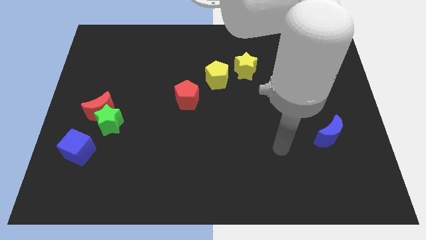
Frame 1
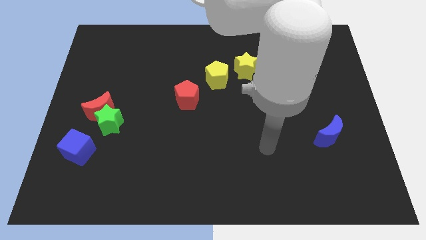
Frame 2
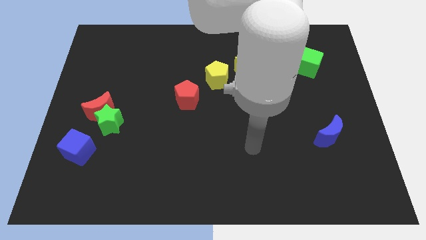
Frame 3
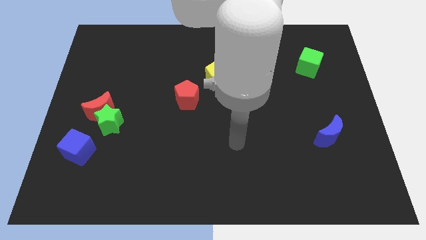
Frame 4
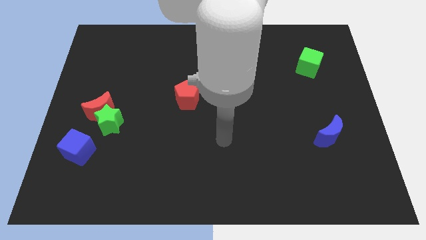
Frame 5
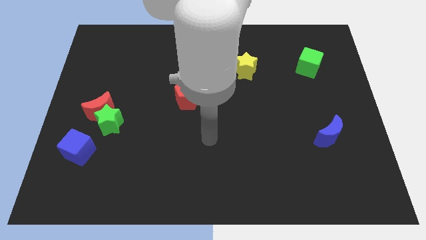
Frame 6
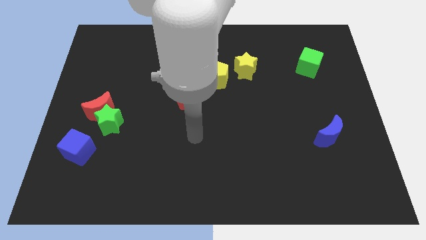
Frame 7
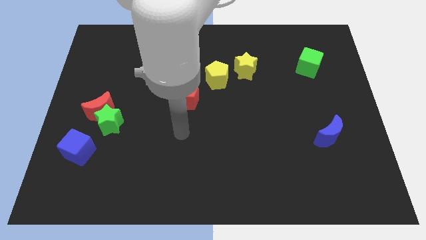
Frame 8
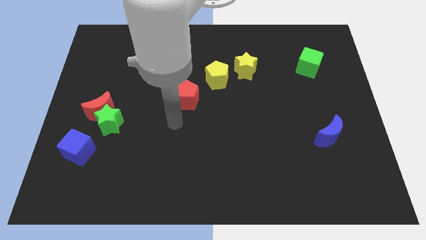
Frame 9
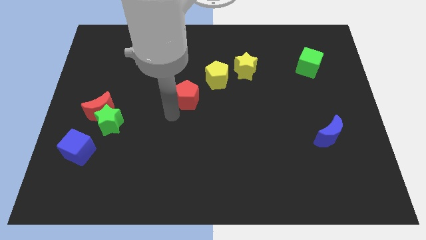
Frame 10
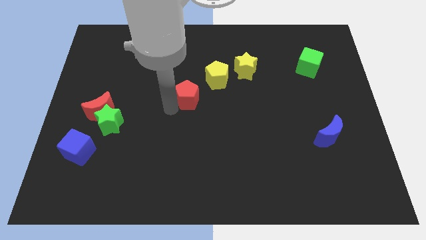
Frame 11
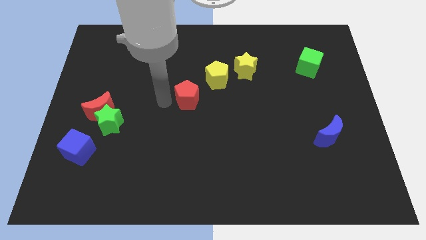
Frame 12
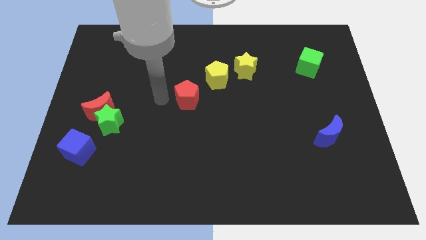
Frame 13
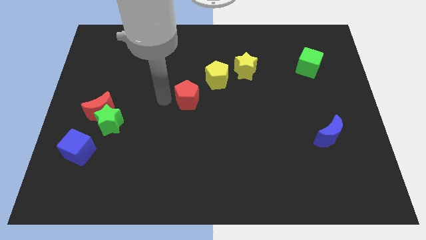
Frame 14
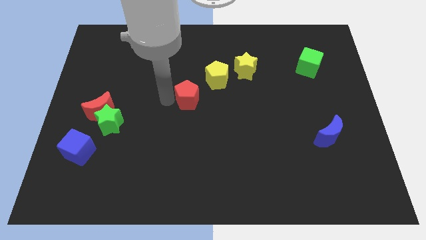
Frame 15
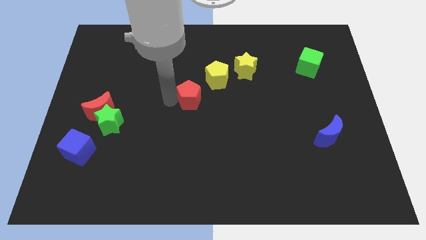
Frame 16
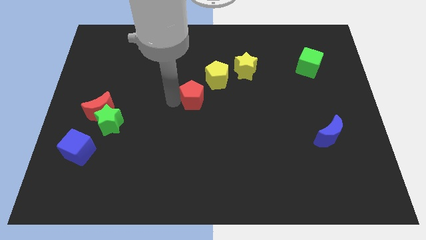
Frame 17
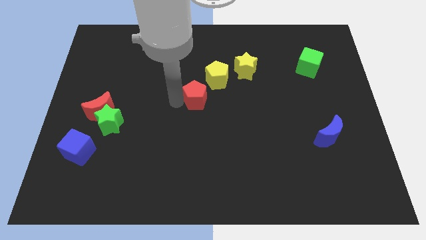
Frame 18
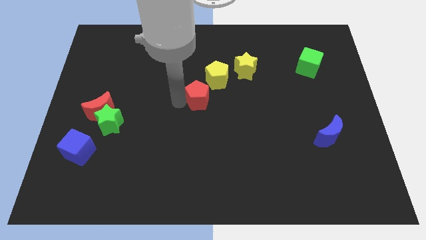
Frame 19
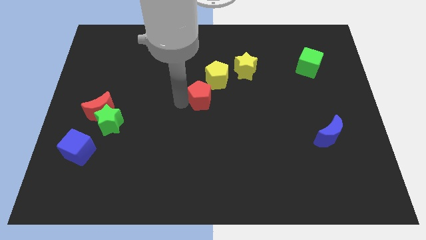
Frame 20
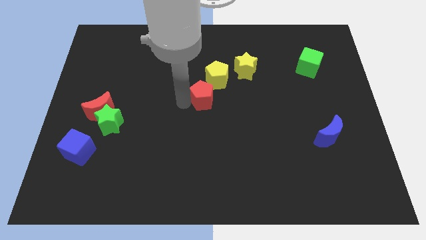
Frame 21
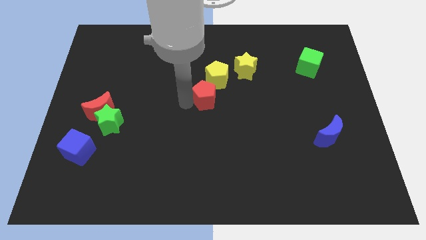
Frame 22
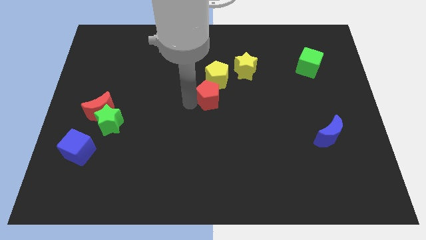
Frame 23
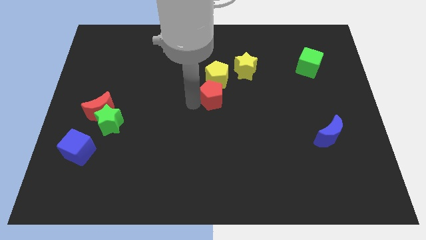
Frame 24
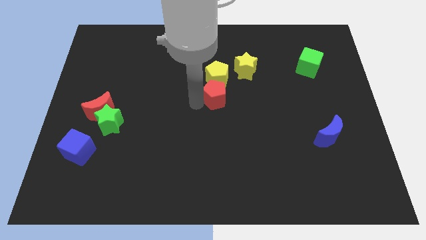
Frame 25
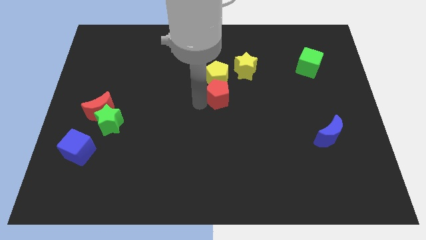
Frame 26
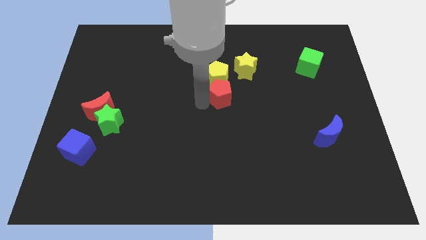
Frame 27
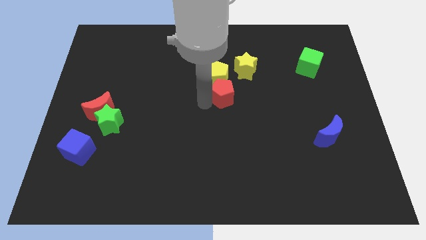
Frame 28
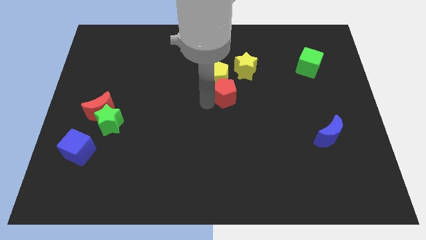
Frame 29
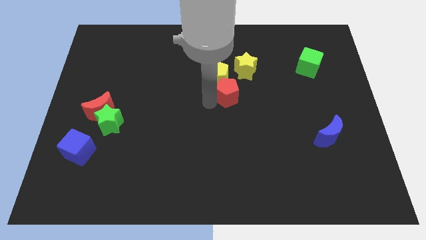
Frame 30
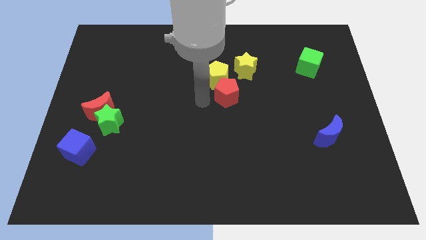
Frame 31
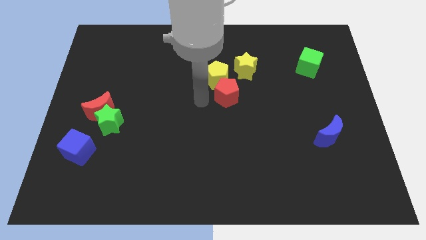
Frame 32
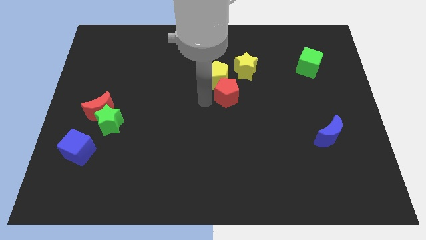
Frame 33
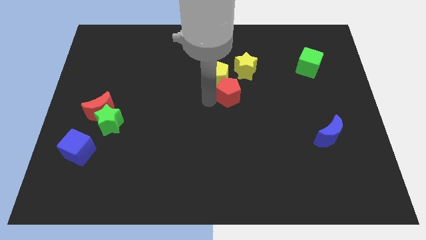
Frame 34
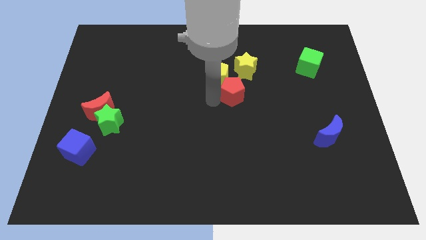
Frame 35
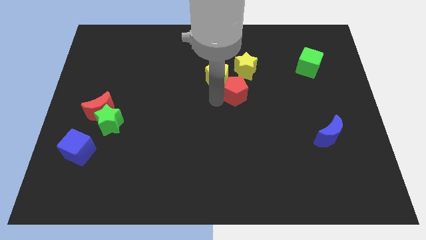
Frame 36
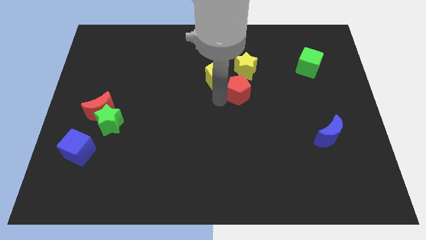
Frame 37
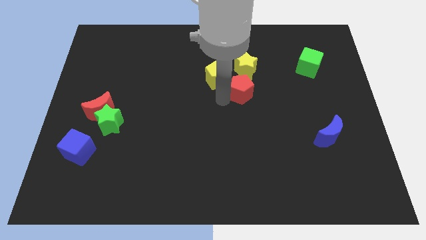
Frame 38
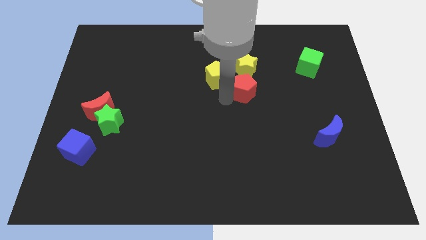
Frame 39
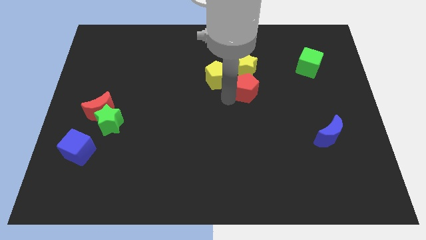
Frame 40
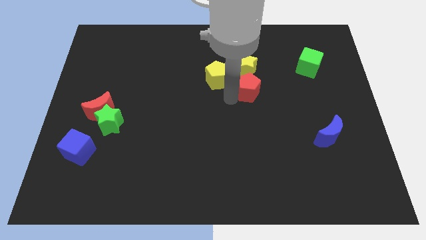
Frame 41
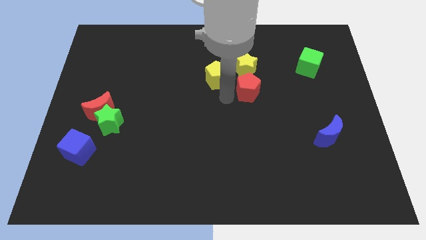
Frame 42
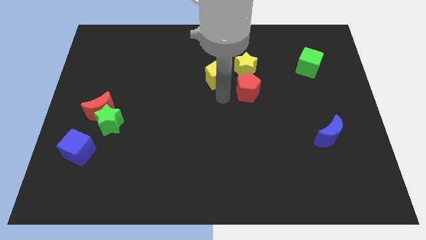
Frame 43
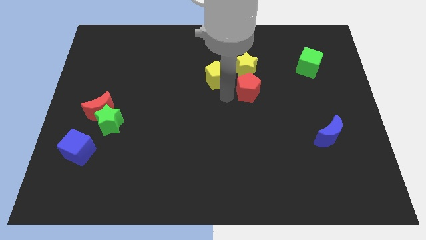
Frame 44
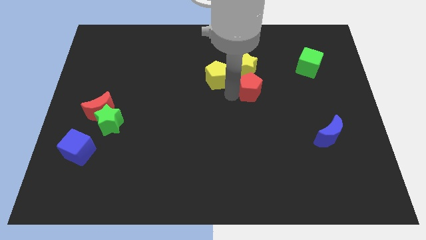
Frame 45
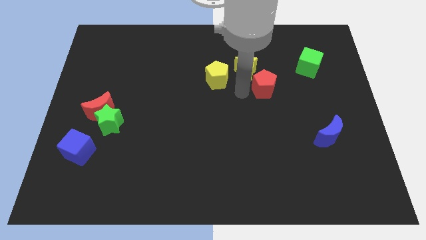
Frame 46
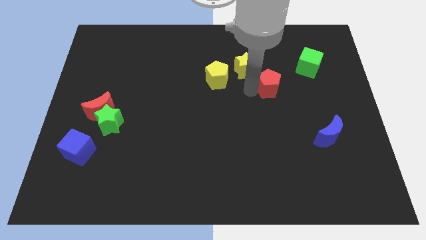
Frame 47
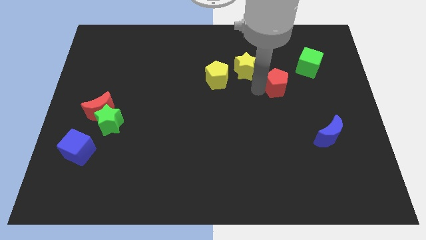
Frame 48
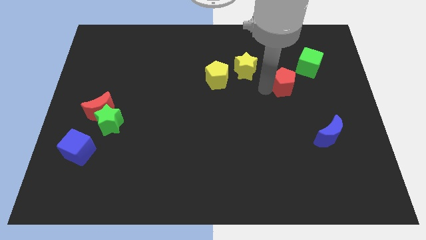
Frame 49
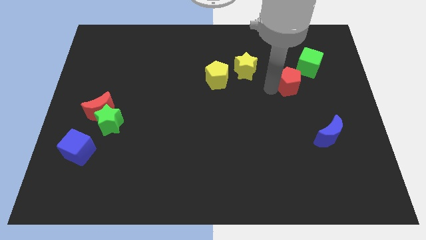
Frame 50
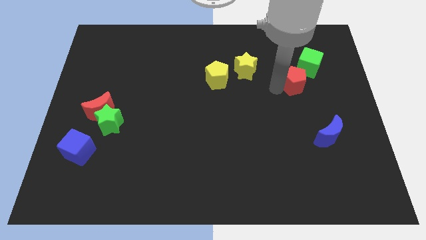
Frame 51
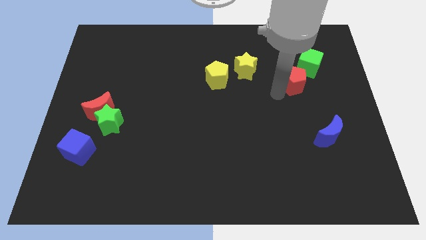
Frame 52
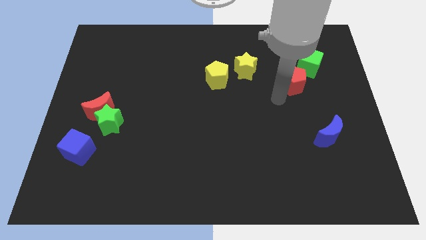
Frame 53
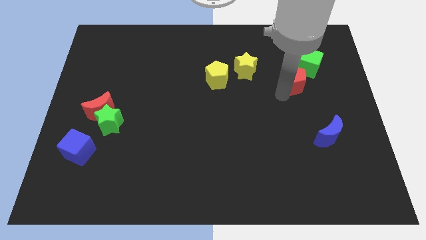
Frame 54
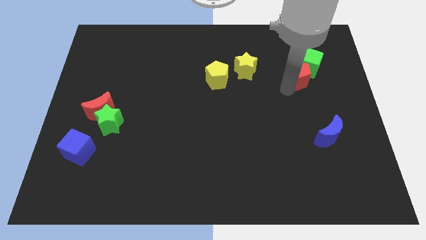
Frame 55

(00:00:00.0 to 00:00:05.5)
move the red pentagon towards the green cube

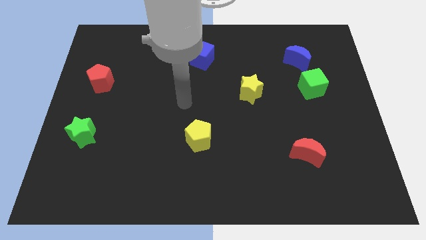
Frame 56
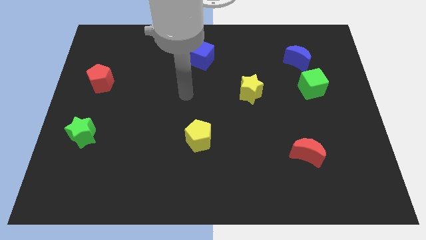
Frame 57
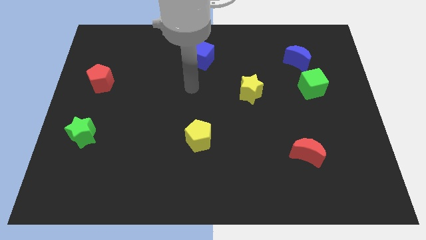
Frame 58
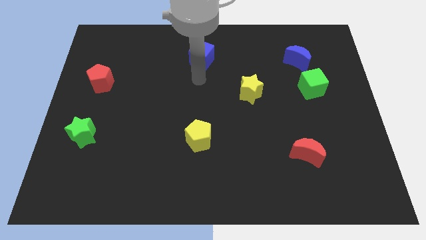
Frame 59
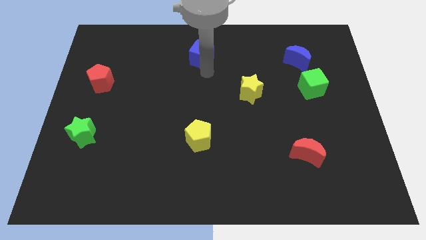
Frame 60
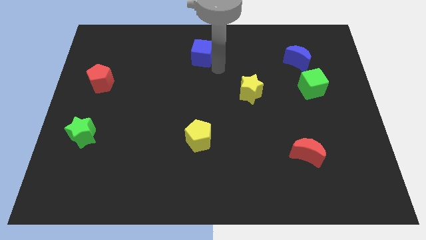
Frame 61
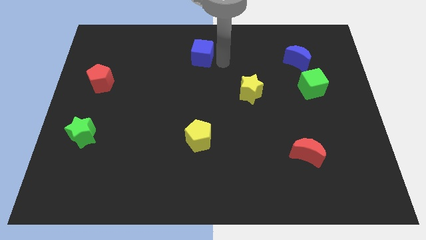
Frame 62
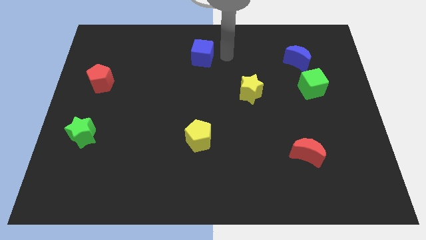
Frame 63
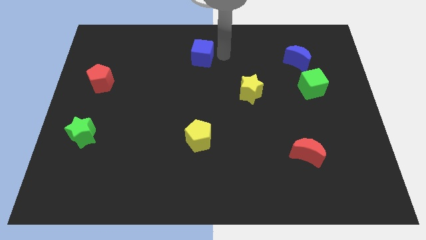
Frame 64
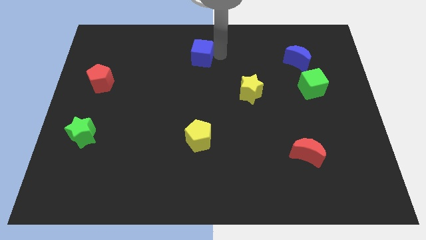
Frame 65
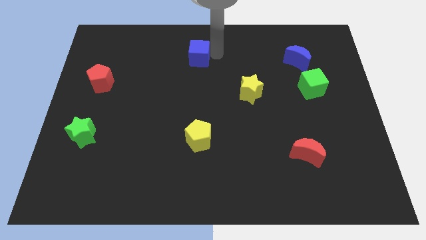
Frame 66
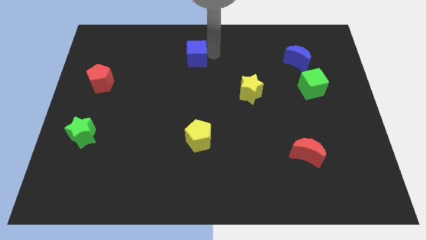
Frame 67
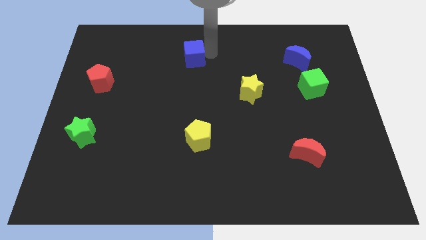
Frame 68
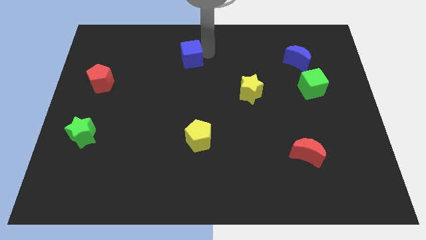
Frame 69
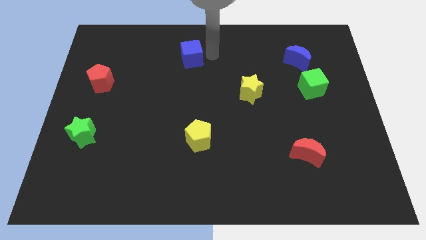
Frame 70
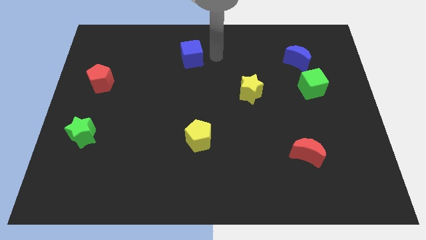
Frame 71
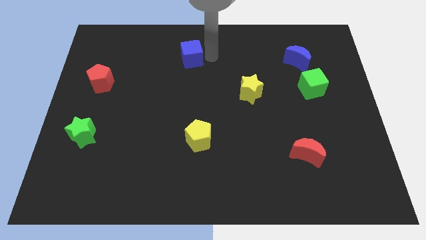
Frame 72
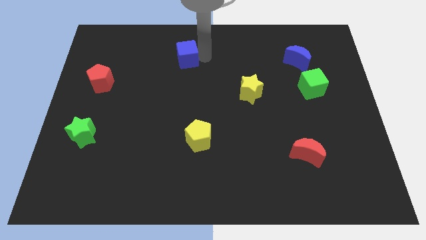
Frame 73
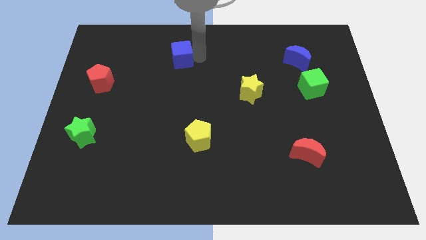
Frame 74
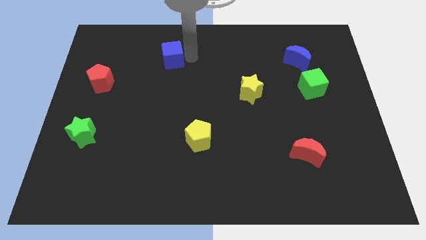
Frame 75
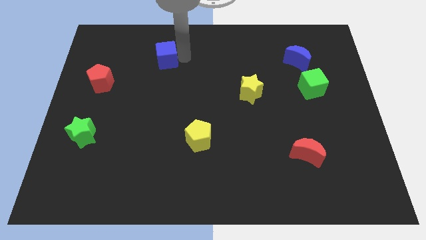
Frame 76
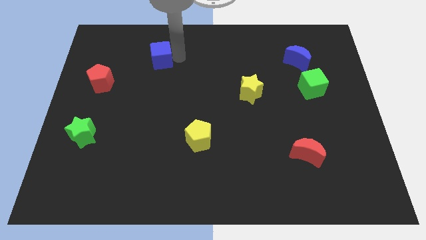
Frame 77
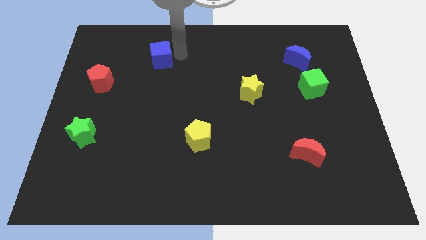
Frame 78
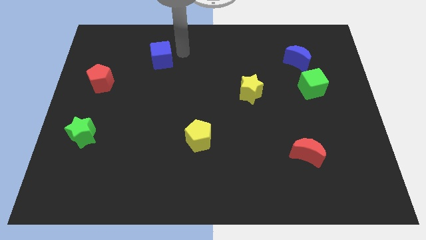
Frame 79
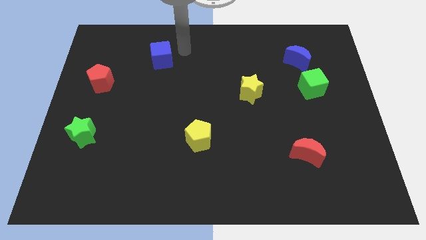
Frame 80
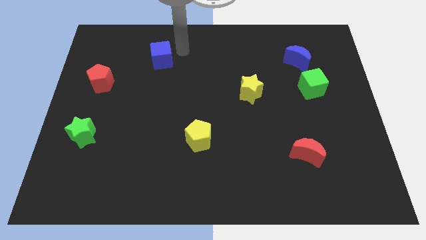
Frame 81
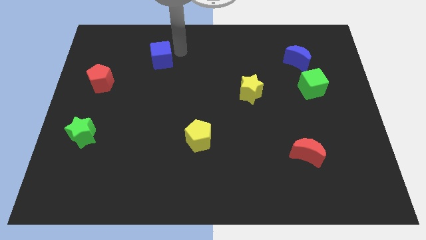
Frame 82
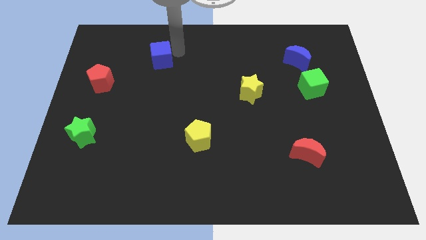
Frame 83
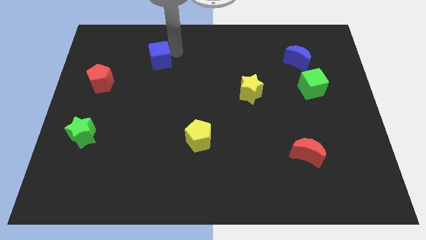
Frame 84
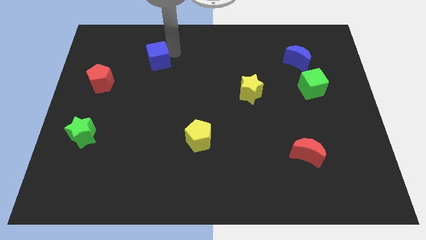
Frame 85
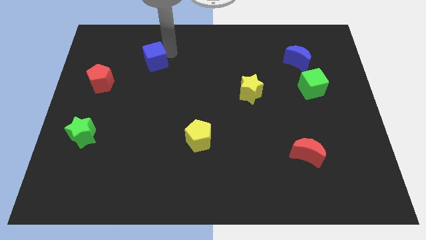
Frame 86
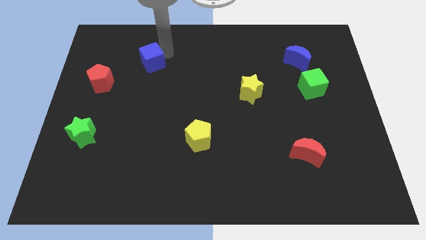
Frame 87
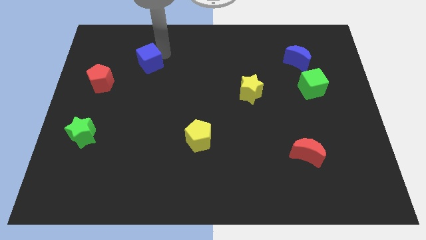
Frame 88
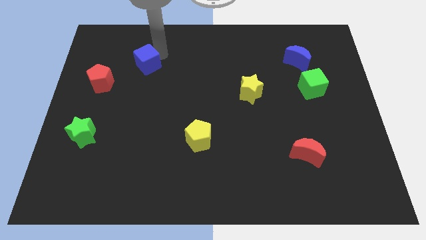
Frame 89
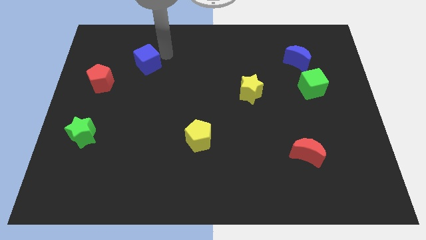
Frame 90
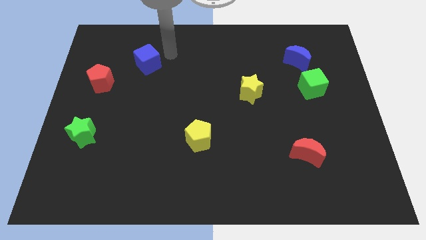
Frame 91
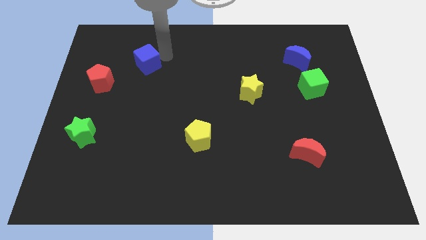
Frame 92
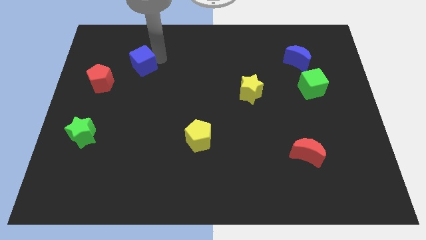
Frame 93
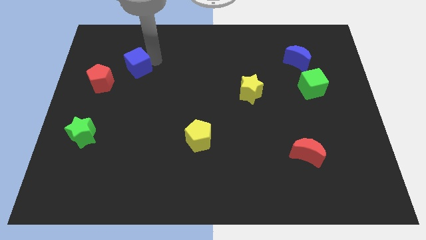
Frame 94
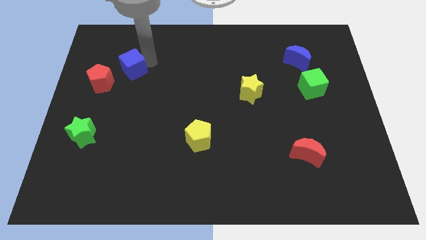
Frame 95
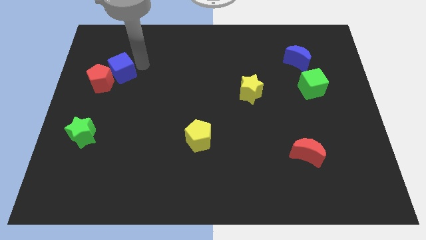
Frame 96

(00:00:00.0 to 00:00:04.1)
put the blue cube close to the red pentagon
